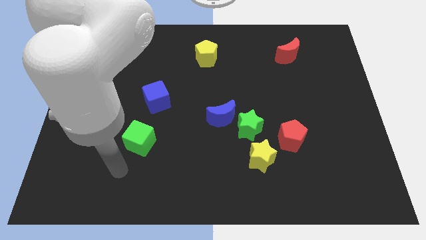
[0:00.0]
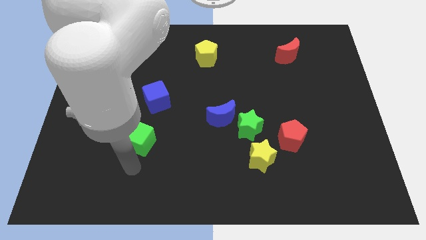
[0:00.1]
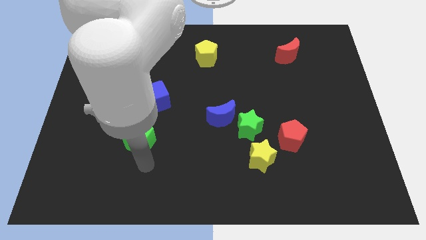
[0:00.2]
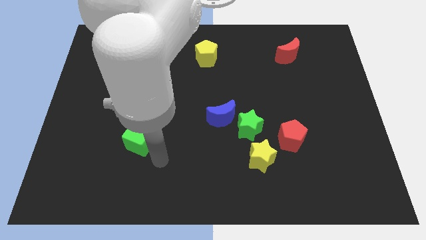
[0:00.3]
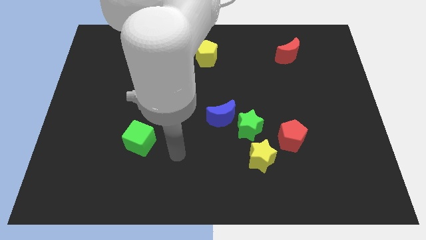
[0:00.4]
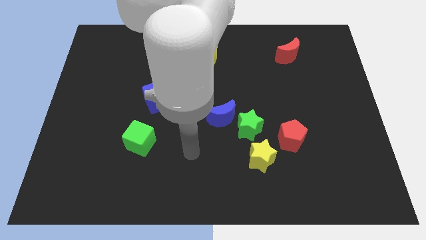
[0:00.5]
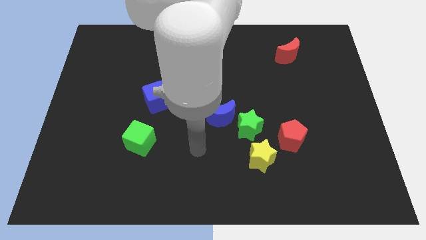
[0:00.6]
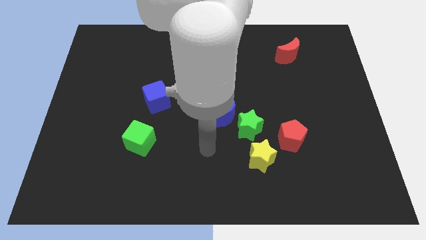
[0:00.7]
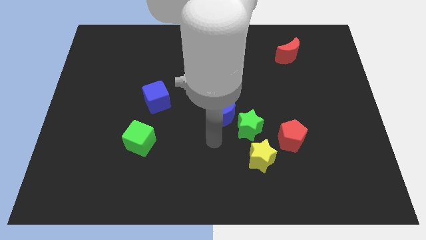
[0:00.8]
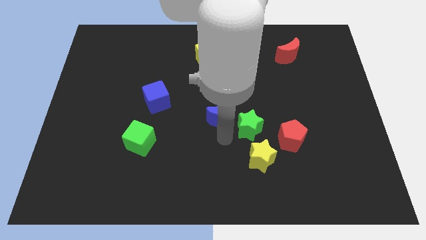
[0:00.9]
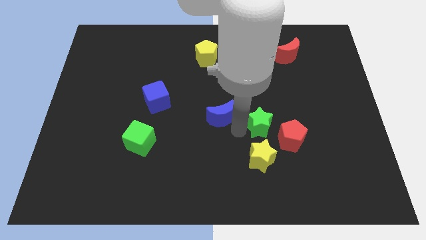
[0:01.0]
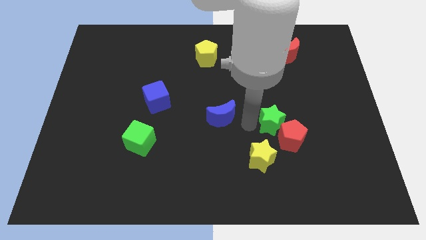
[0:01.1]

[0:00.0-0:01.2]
move the blue moon away from the green star

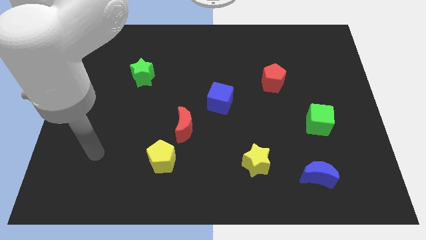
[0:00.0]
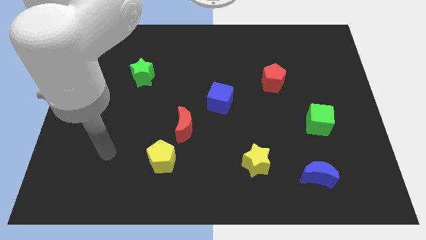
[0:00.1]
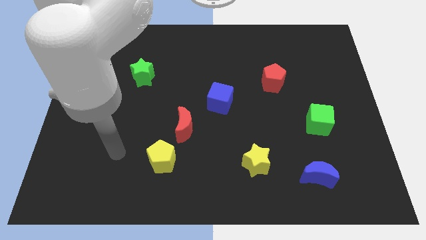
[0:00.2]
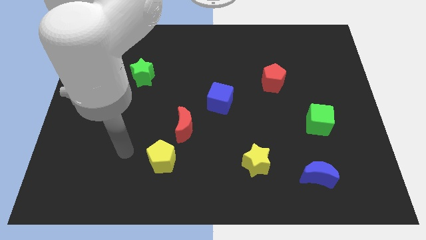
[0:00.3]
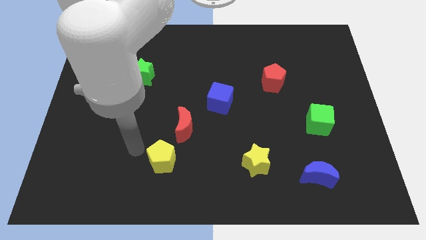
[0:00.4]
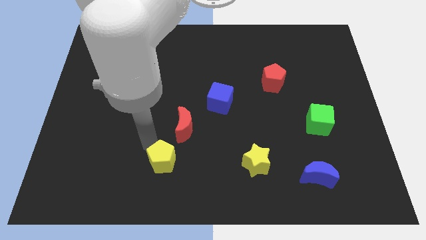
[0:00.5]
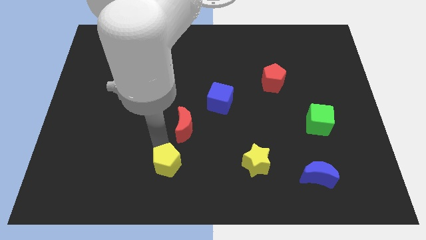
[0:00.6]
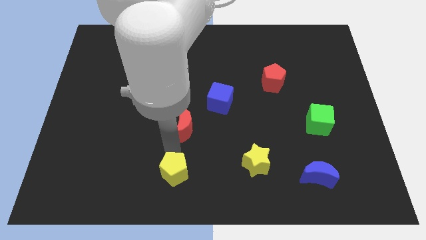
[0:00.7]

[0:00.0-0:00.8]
move the red moon away from the yellow pentagon

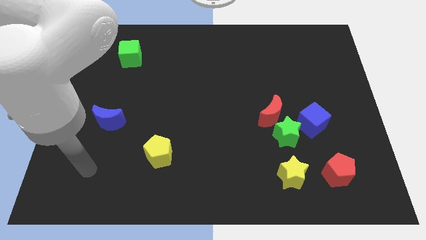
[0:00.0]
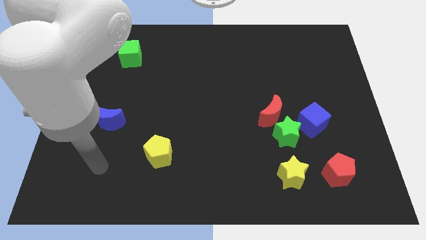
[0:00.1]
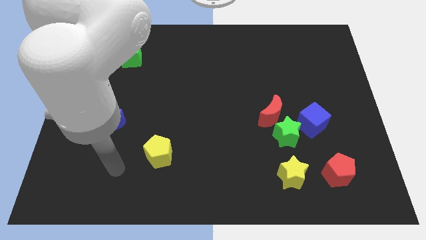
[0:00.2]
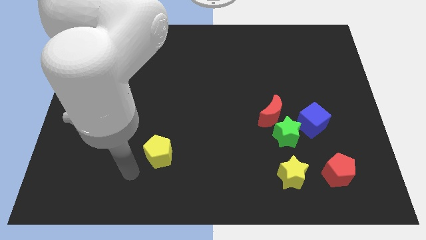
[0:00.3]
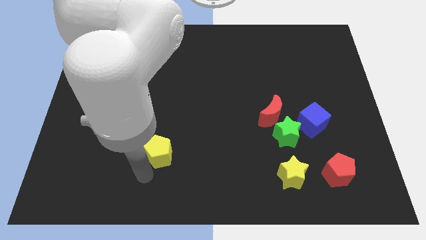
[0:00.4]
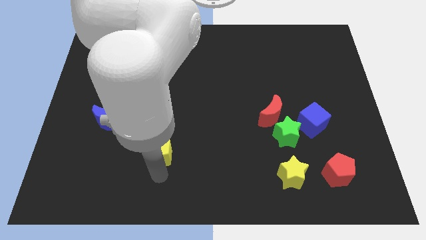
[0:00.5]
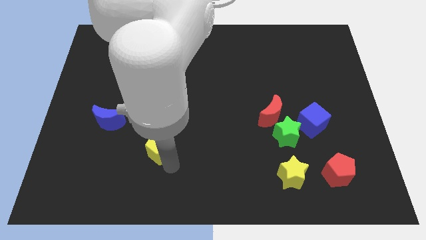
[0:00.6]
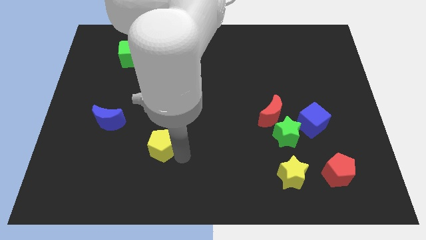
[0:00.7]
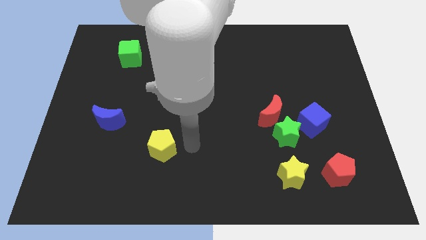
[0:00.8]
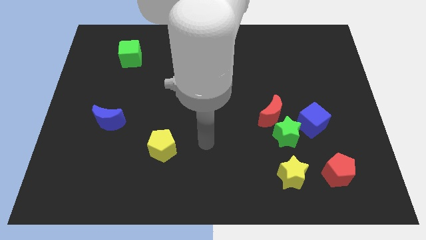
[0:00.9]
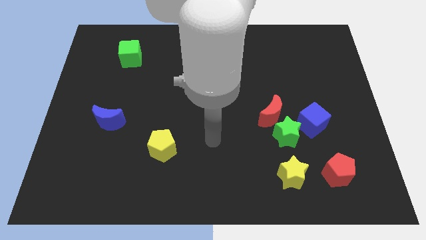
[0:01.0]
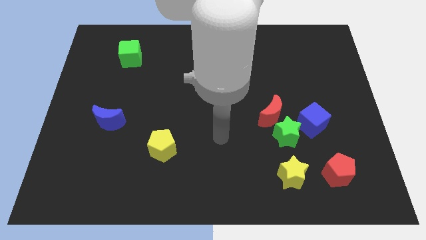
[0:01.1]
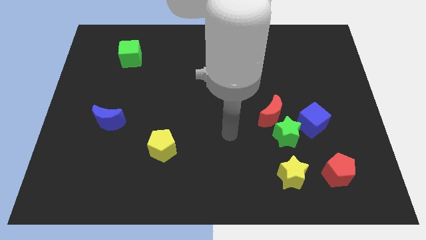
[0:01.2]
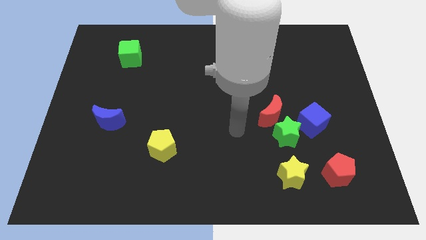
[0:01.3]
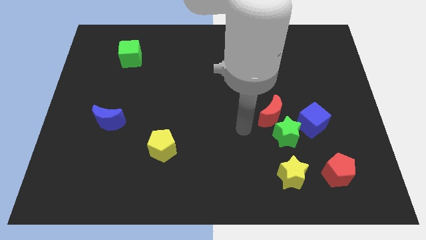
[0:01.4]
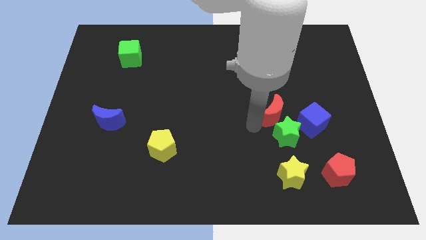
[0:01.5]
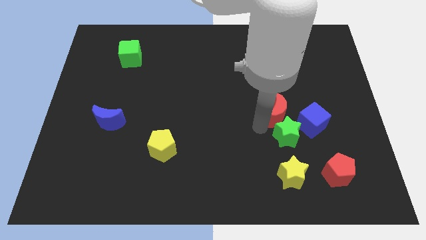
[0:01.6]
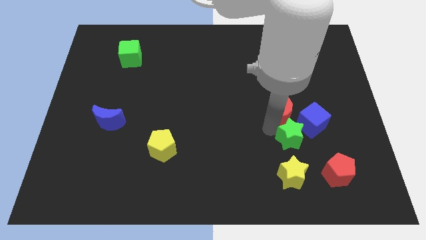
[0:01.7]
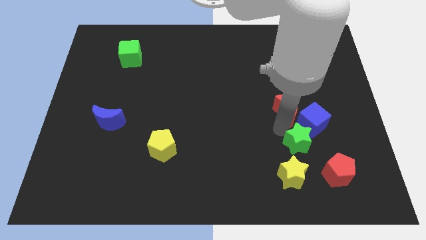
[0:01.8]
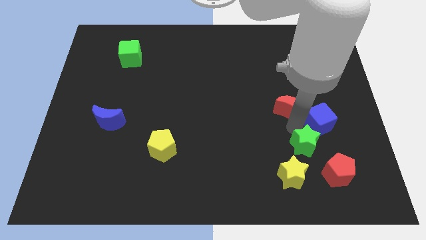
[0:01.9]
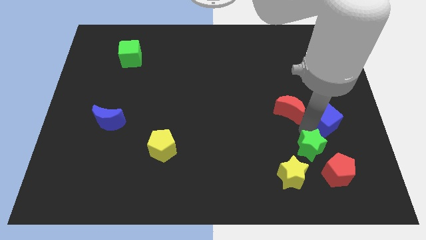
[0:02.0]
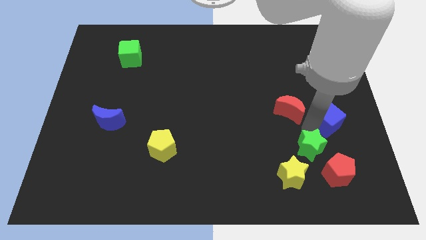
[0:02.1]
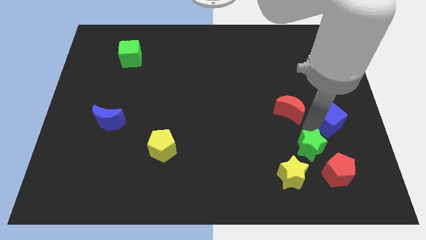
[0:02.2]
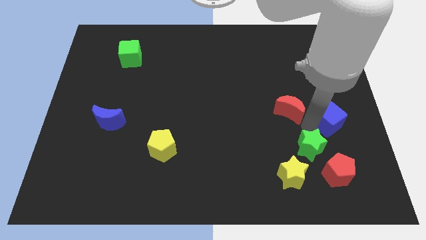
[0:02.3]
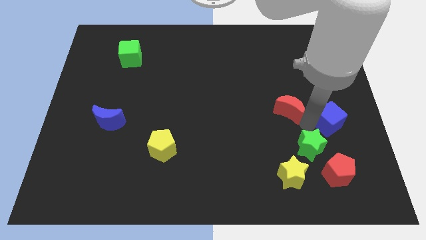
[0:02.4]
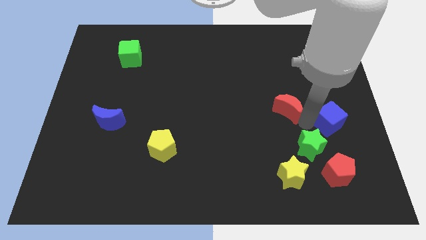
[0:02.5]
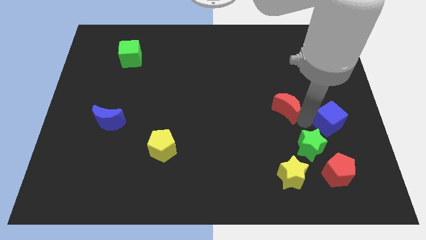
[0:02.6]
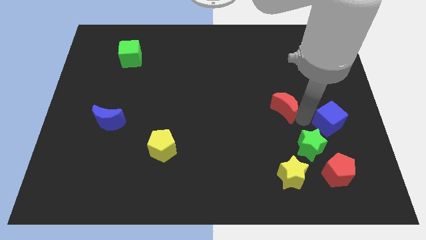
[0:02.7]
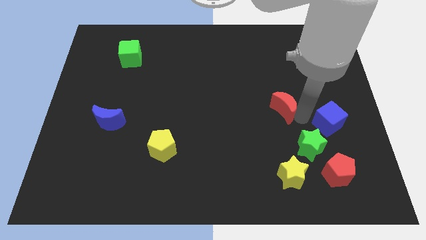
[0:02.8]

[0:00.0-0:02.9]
pull the red moon apart from the green star and blue cube

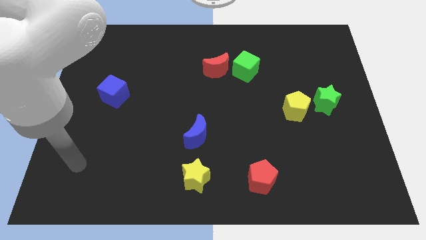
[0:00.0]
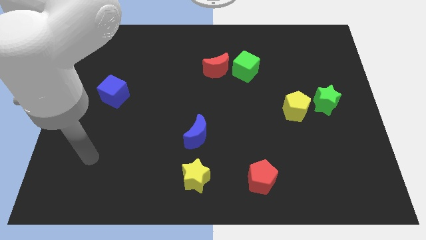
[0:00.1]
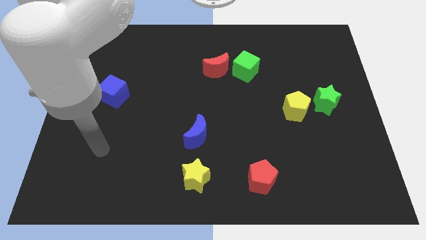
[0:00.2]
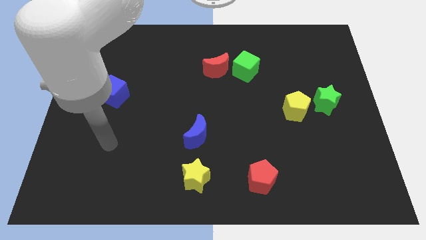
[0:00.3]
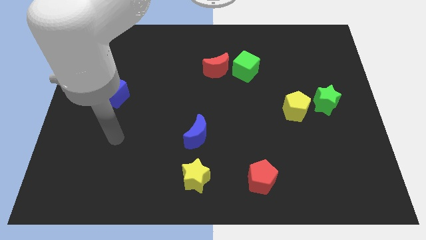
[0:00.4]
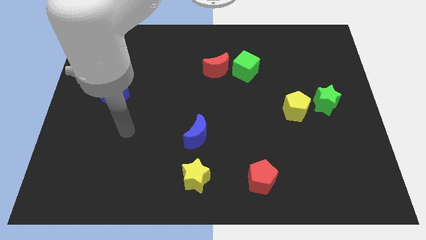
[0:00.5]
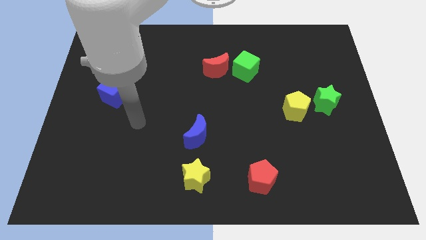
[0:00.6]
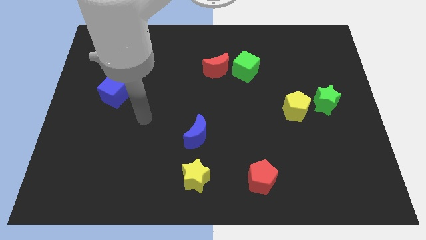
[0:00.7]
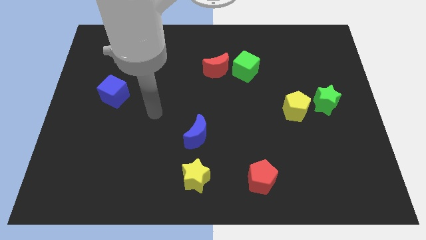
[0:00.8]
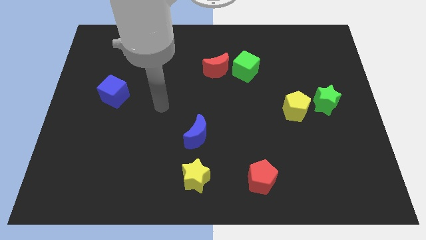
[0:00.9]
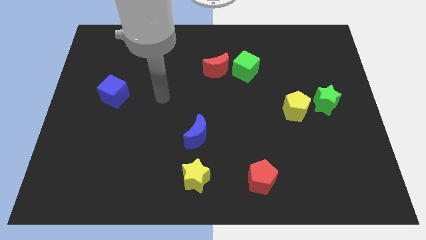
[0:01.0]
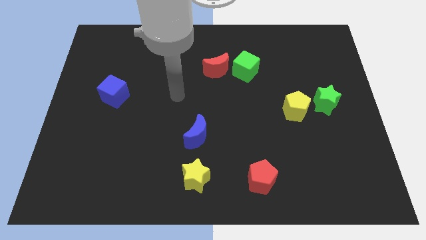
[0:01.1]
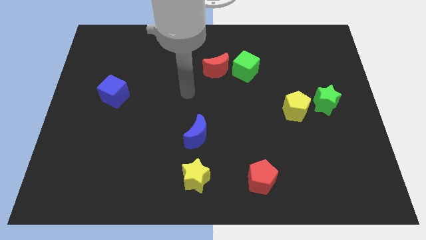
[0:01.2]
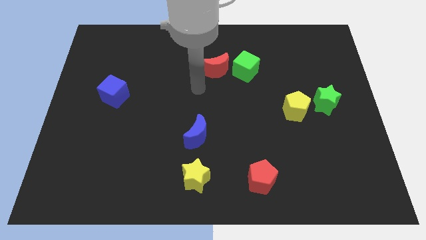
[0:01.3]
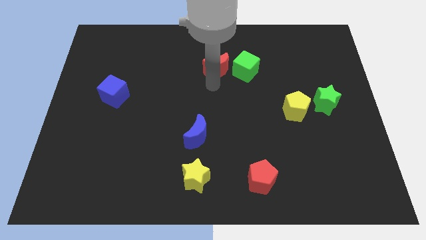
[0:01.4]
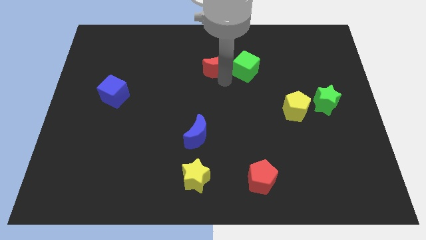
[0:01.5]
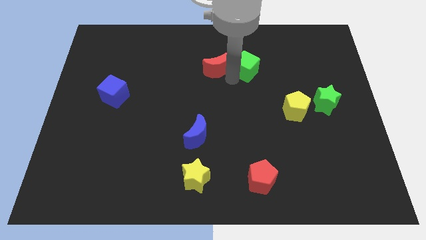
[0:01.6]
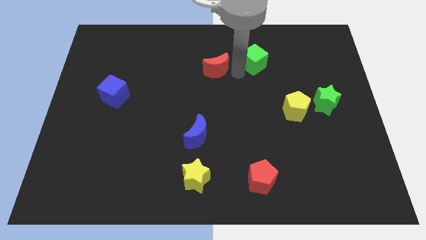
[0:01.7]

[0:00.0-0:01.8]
separate the red moon from the green cube

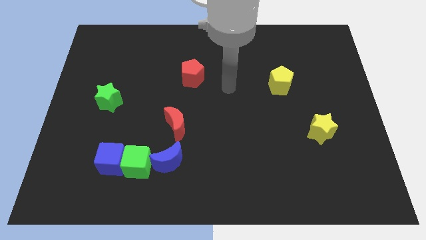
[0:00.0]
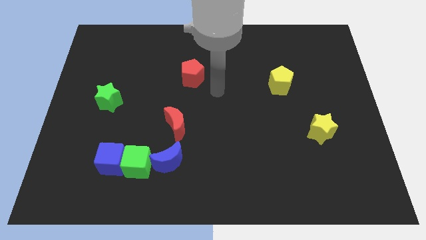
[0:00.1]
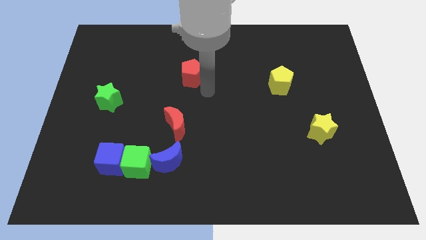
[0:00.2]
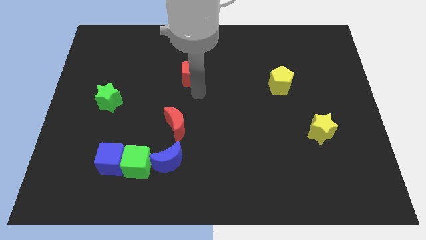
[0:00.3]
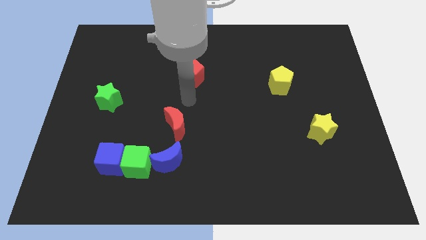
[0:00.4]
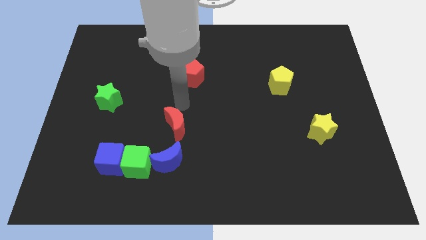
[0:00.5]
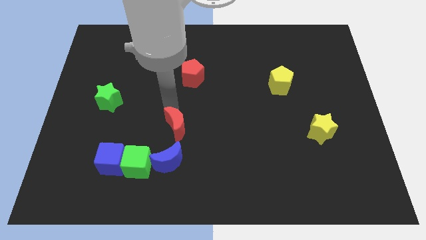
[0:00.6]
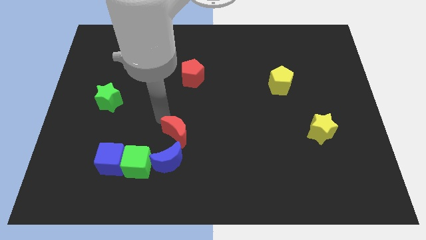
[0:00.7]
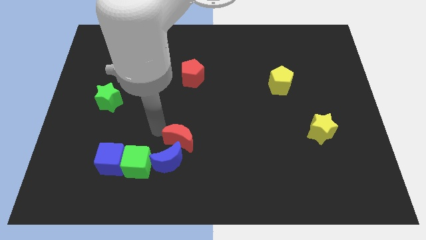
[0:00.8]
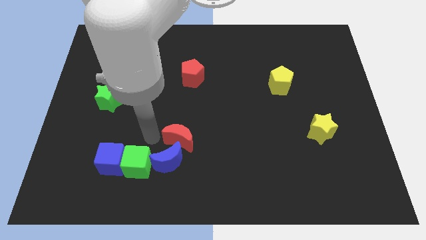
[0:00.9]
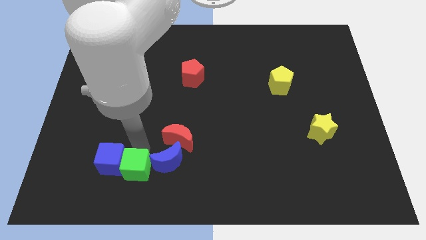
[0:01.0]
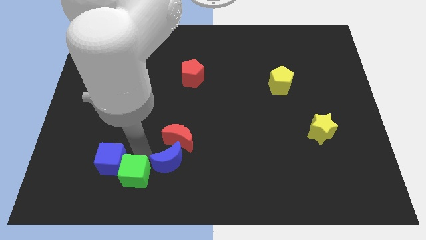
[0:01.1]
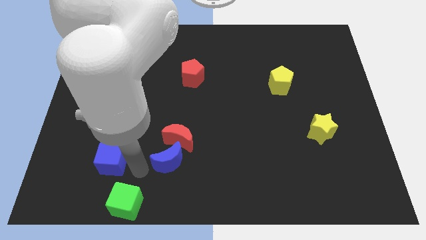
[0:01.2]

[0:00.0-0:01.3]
separate the blue cube from the green cube

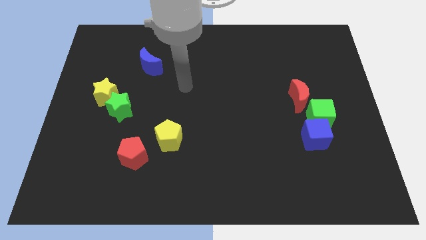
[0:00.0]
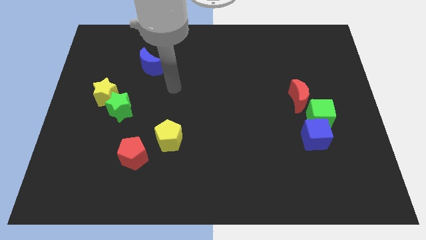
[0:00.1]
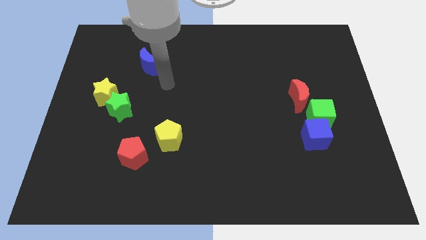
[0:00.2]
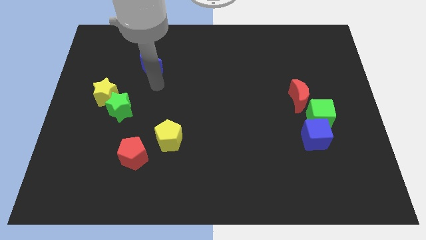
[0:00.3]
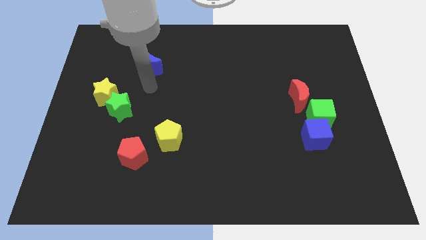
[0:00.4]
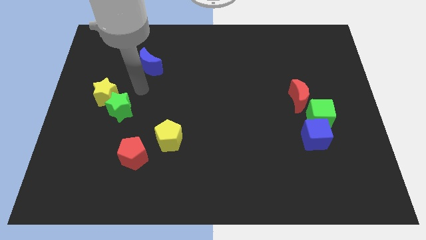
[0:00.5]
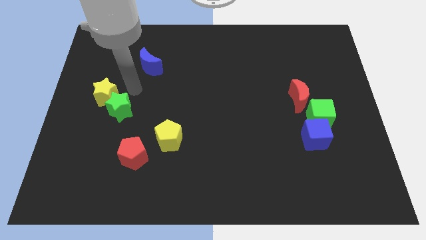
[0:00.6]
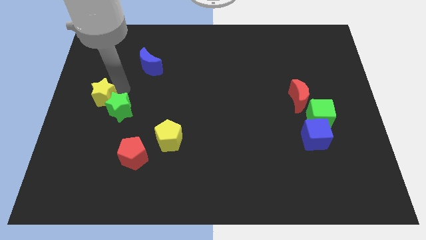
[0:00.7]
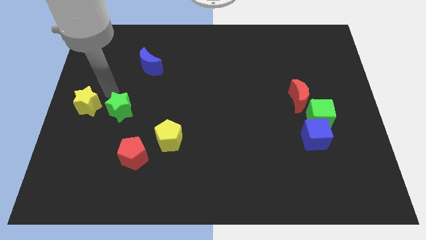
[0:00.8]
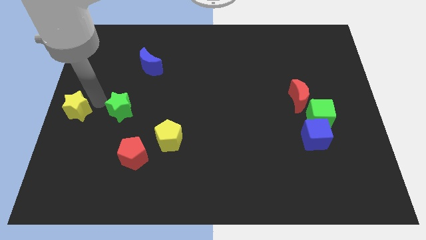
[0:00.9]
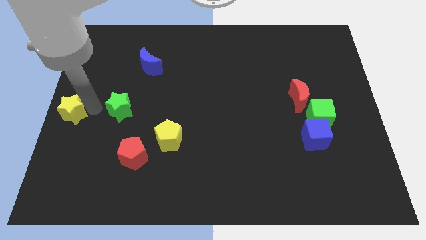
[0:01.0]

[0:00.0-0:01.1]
pull the green star apart from the yellow star

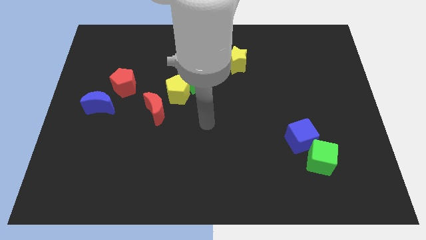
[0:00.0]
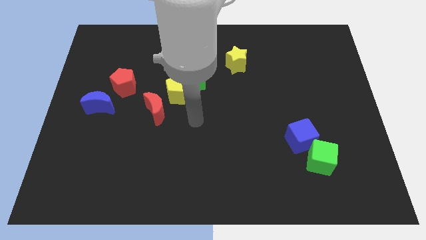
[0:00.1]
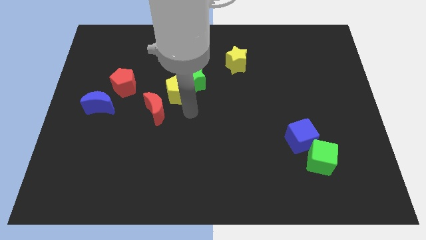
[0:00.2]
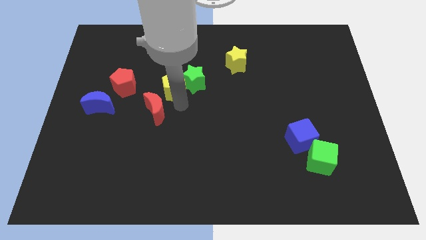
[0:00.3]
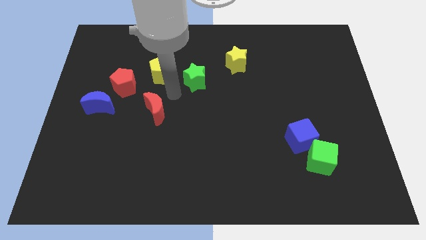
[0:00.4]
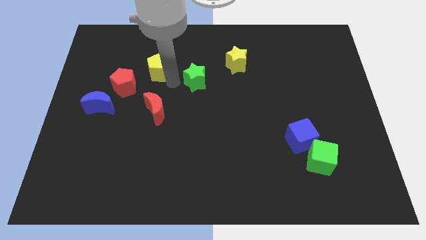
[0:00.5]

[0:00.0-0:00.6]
move the green star away from the yellow pentagon
